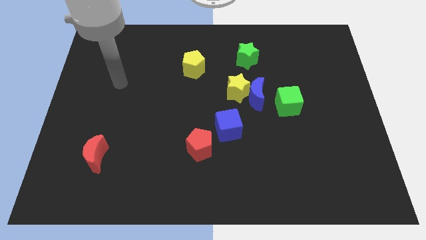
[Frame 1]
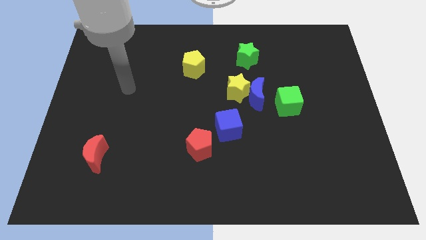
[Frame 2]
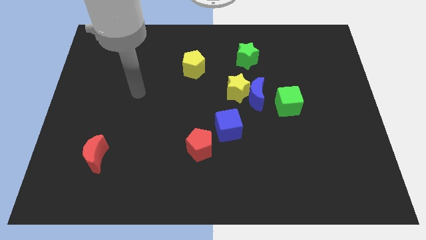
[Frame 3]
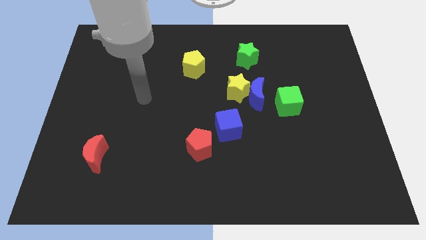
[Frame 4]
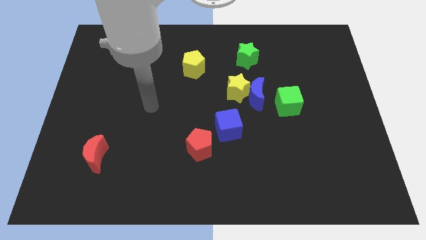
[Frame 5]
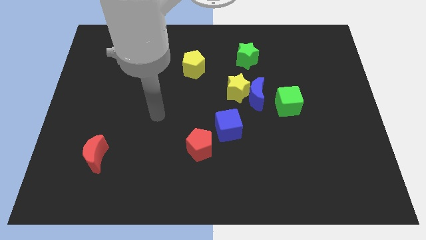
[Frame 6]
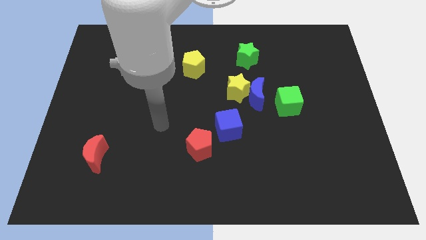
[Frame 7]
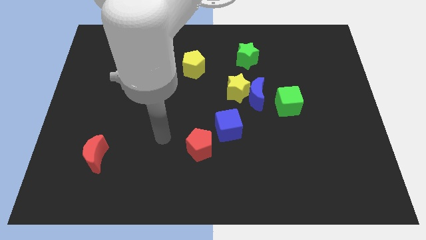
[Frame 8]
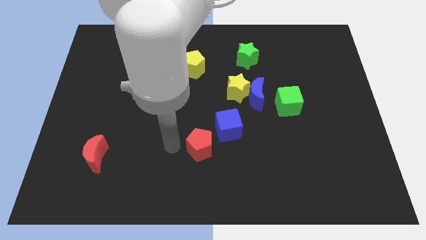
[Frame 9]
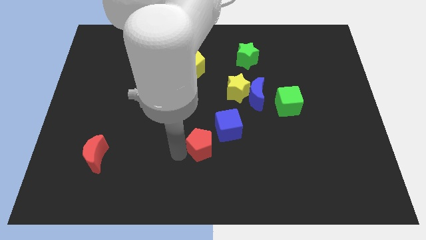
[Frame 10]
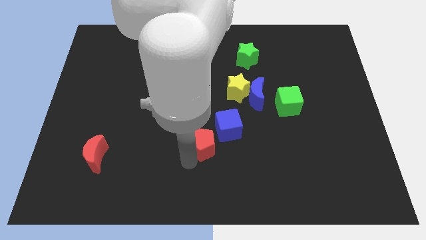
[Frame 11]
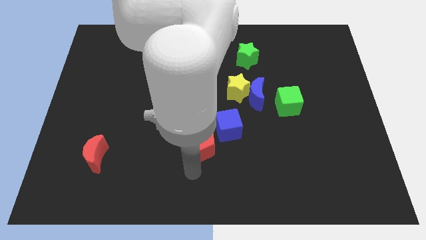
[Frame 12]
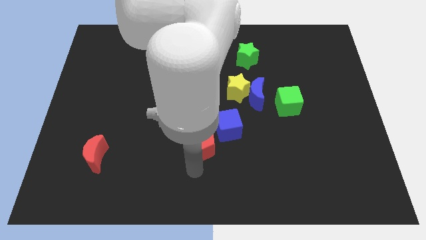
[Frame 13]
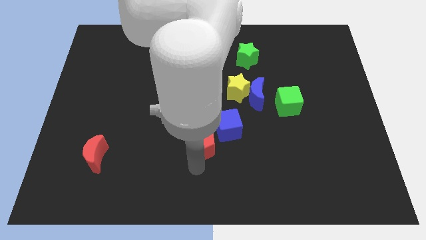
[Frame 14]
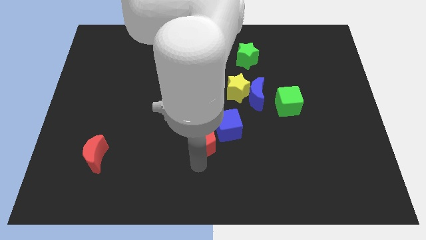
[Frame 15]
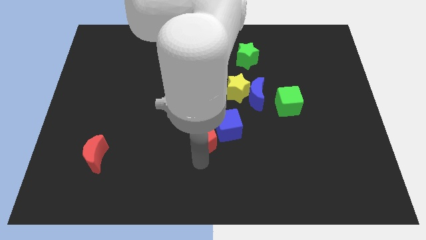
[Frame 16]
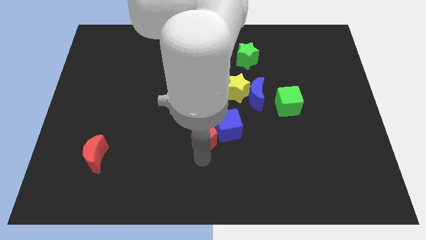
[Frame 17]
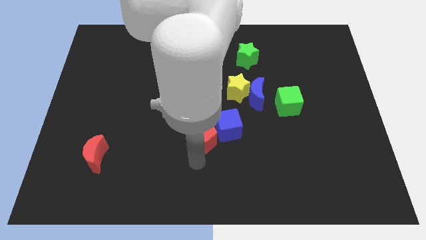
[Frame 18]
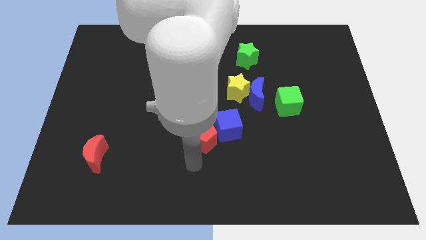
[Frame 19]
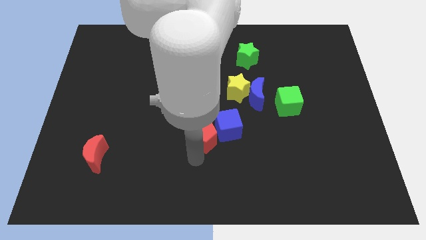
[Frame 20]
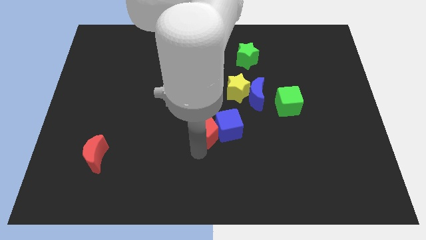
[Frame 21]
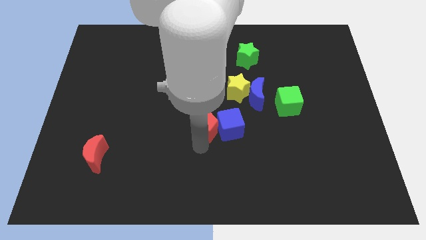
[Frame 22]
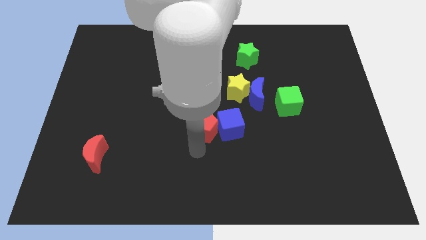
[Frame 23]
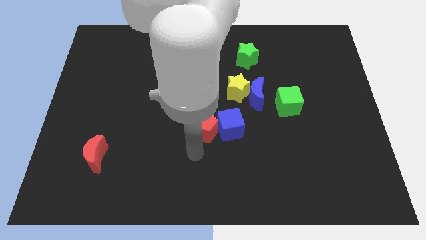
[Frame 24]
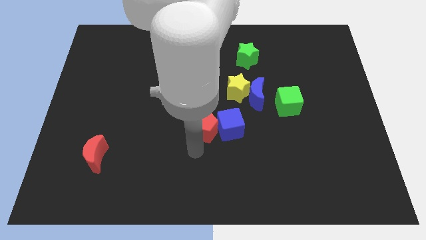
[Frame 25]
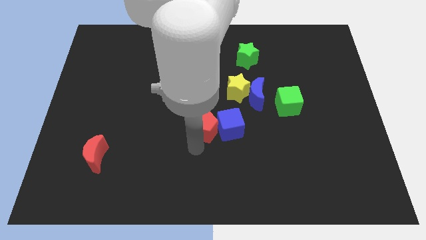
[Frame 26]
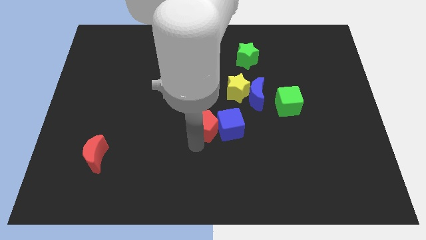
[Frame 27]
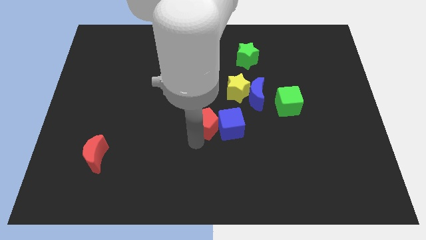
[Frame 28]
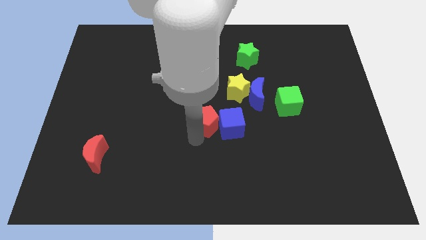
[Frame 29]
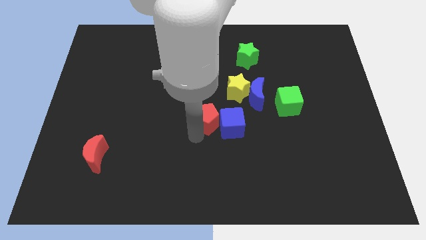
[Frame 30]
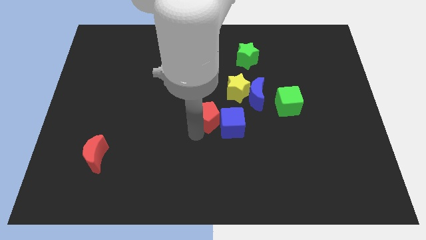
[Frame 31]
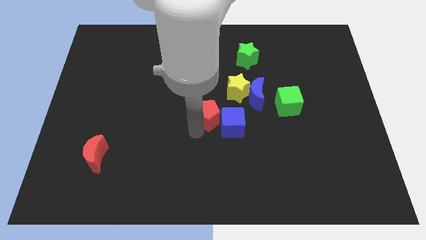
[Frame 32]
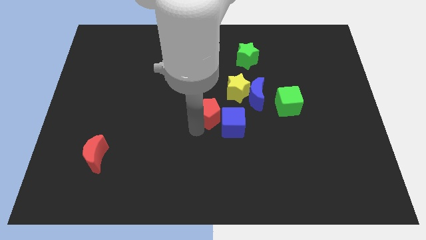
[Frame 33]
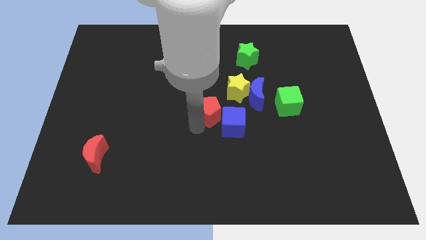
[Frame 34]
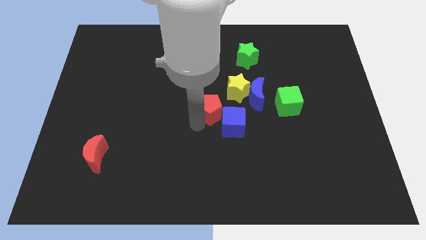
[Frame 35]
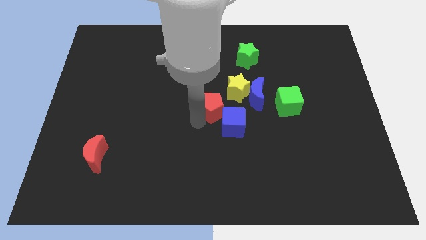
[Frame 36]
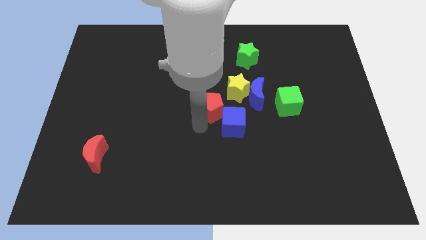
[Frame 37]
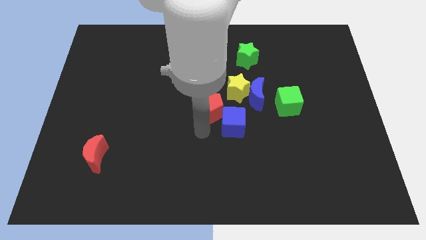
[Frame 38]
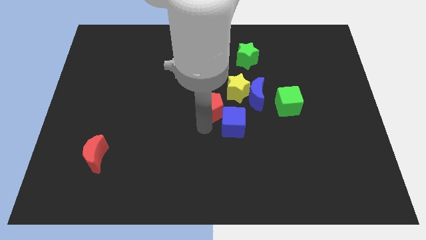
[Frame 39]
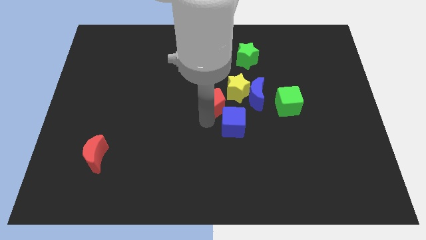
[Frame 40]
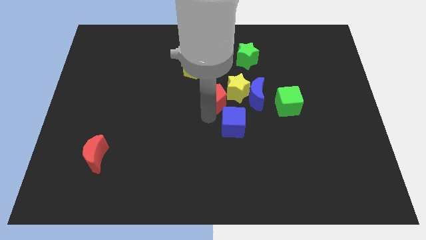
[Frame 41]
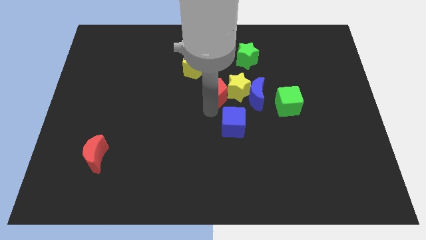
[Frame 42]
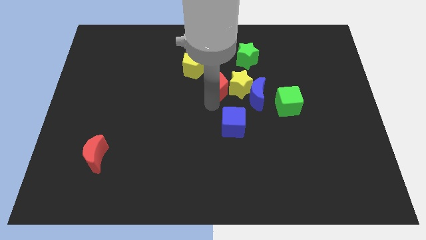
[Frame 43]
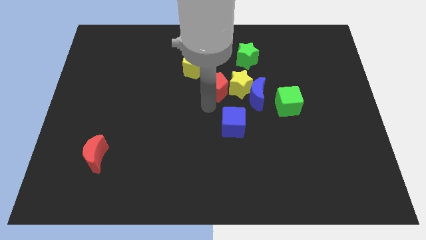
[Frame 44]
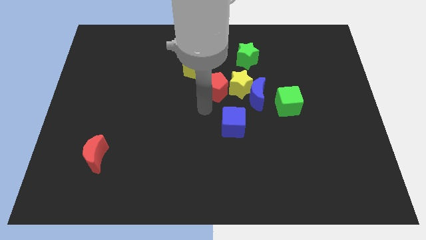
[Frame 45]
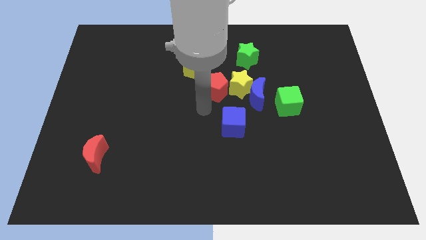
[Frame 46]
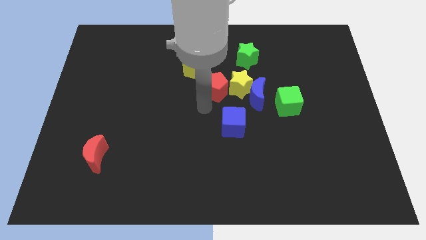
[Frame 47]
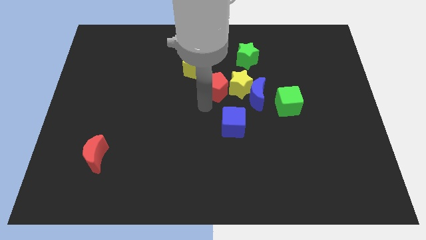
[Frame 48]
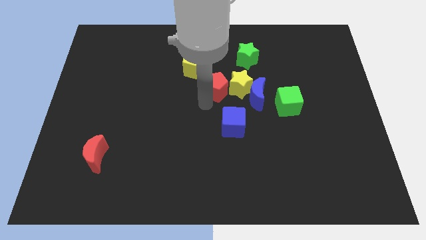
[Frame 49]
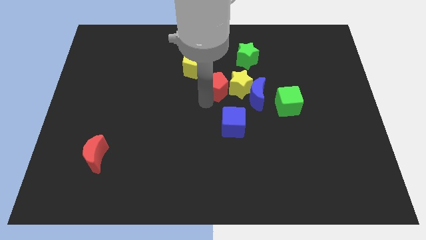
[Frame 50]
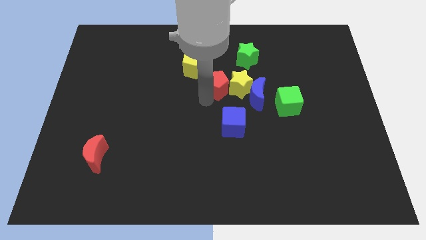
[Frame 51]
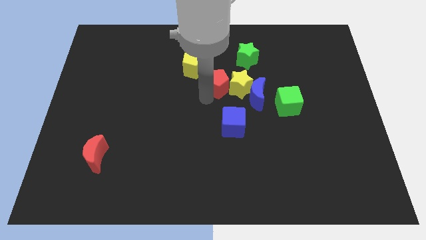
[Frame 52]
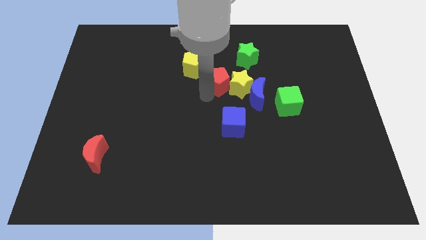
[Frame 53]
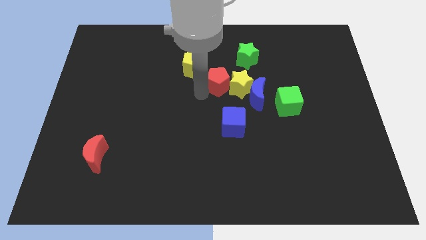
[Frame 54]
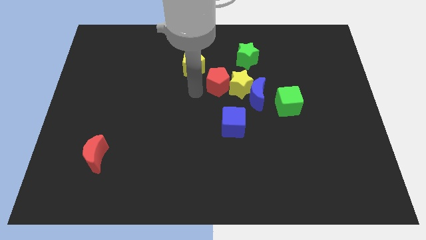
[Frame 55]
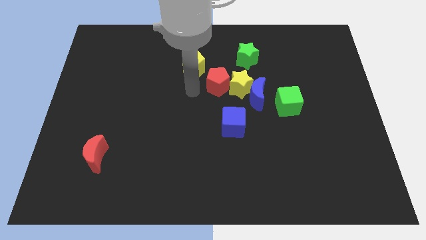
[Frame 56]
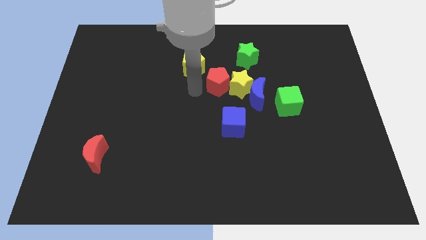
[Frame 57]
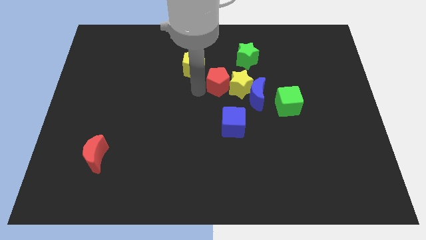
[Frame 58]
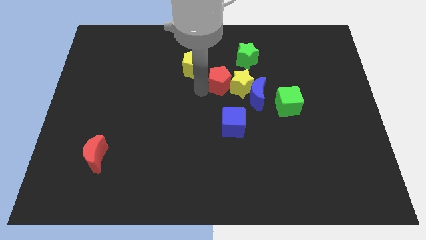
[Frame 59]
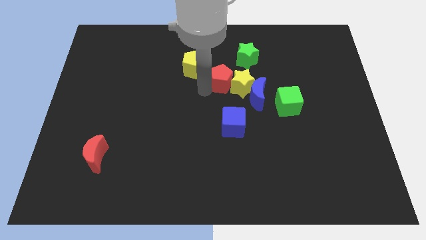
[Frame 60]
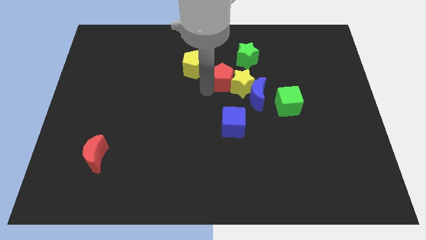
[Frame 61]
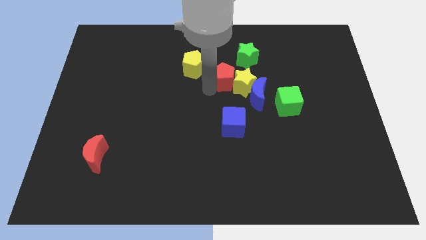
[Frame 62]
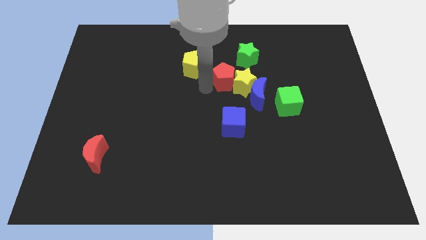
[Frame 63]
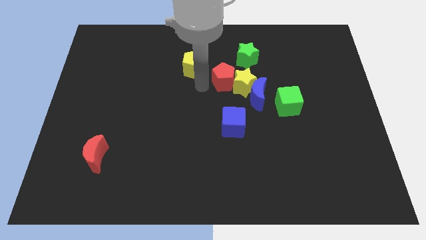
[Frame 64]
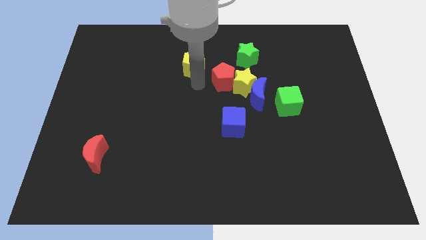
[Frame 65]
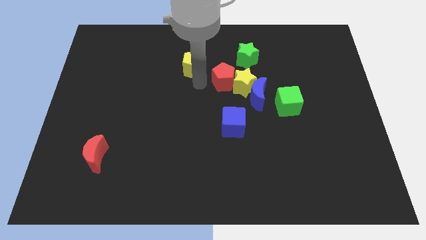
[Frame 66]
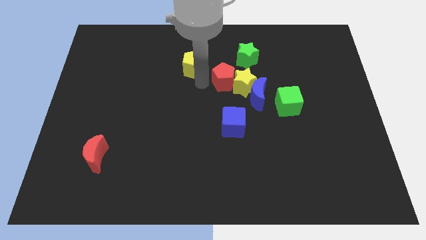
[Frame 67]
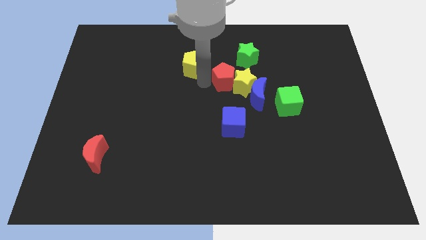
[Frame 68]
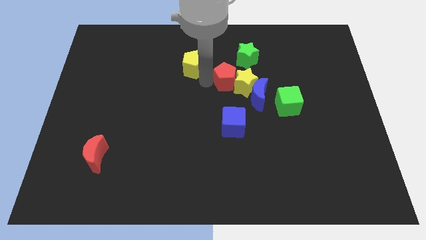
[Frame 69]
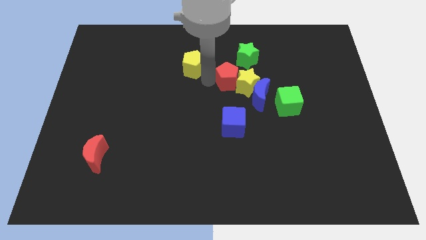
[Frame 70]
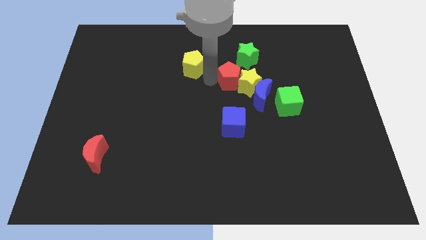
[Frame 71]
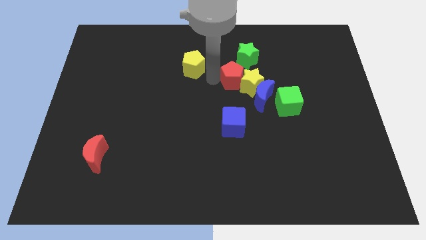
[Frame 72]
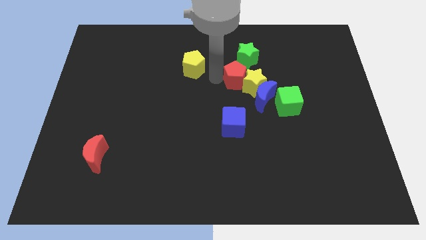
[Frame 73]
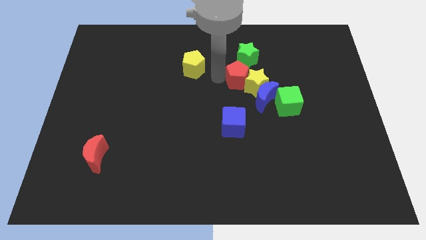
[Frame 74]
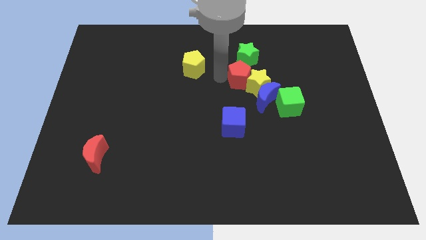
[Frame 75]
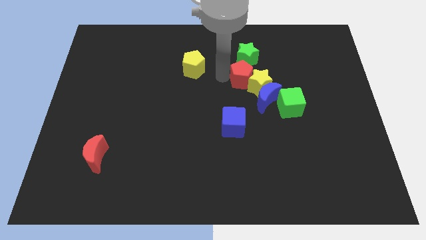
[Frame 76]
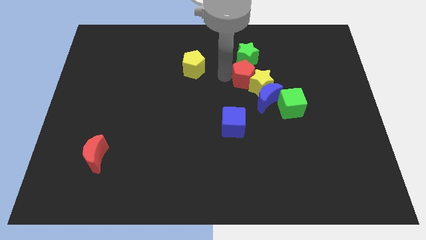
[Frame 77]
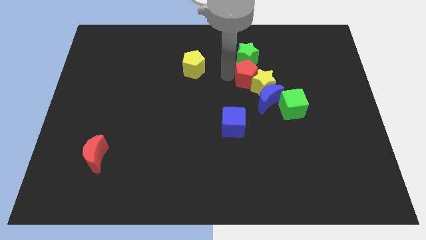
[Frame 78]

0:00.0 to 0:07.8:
push the red pentagon up and then right
